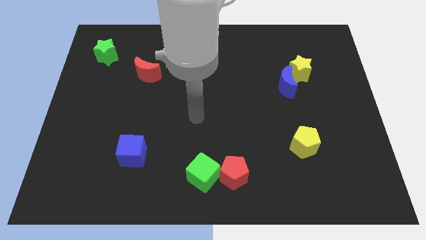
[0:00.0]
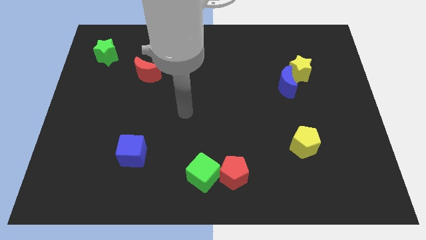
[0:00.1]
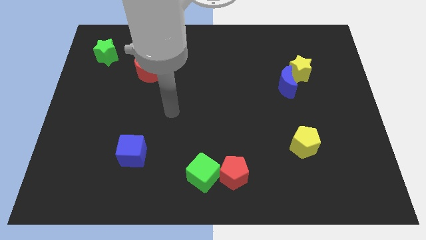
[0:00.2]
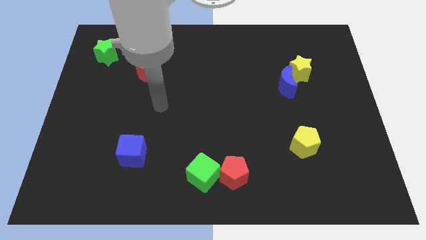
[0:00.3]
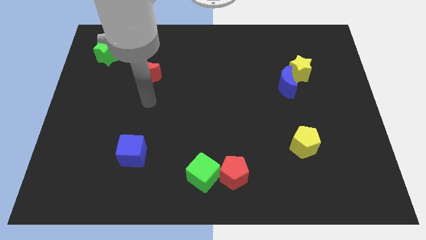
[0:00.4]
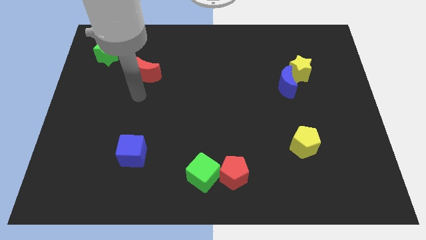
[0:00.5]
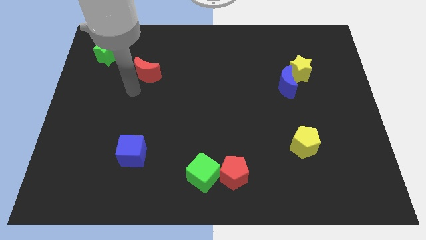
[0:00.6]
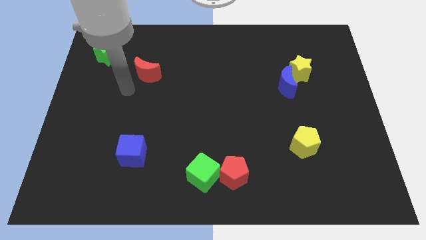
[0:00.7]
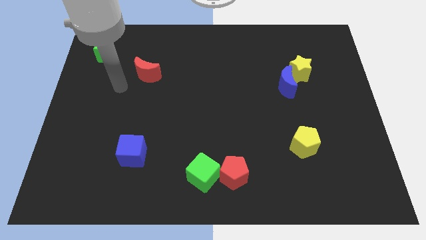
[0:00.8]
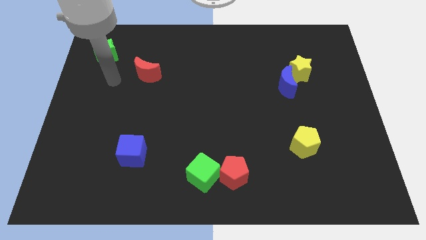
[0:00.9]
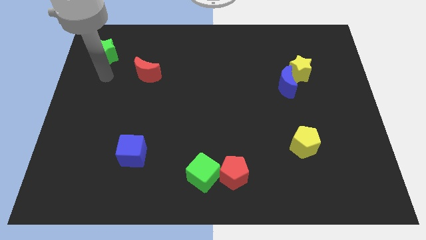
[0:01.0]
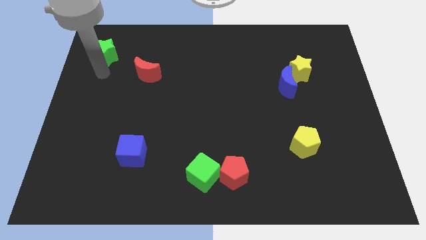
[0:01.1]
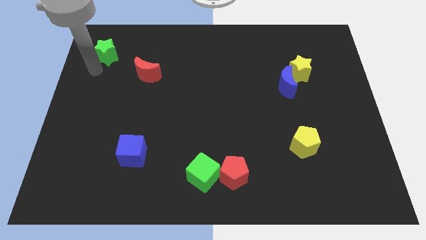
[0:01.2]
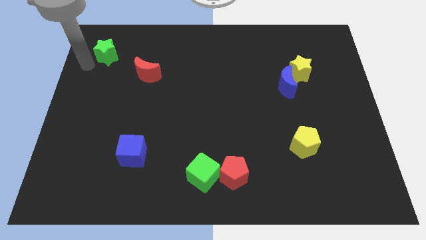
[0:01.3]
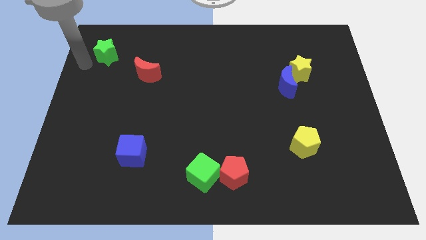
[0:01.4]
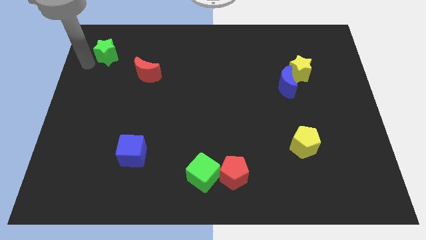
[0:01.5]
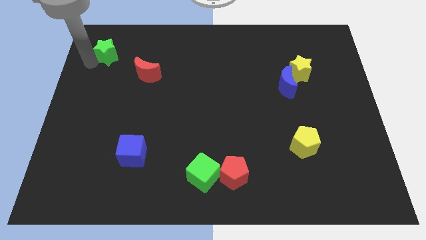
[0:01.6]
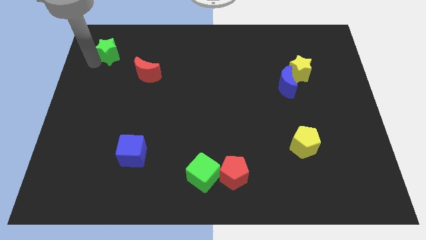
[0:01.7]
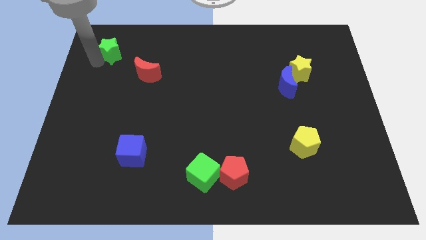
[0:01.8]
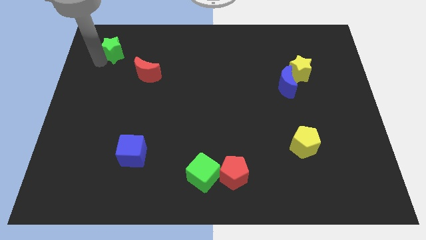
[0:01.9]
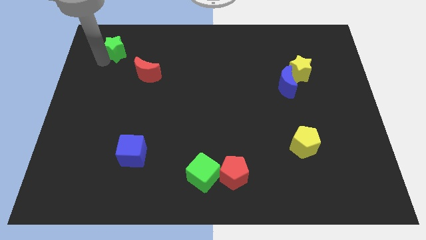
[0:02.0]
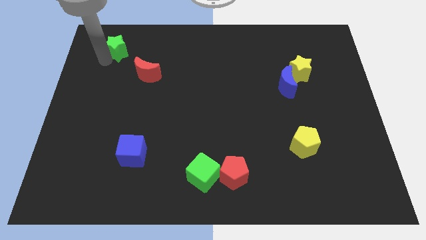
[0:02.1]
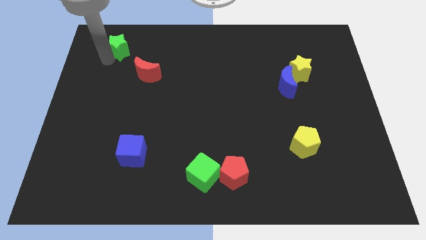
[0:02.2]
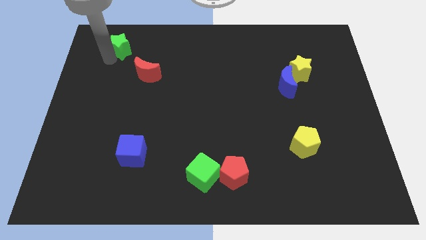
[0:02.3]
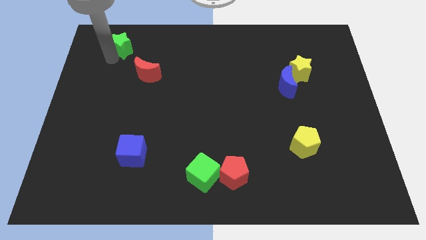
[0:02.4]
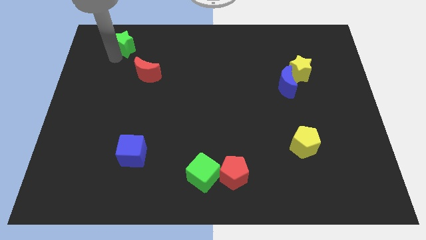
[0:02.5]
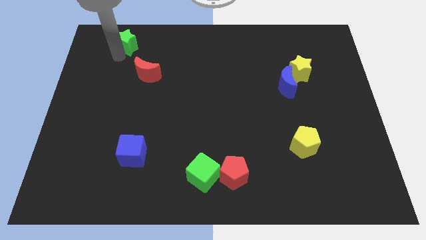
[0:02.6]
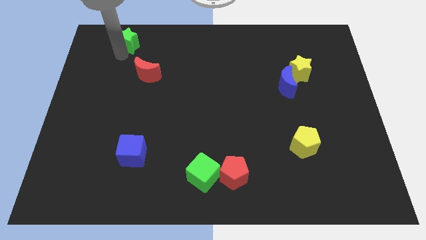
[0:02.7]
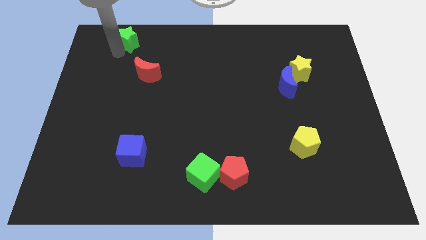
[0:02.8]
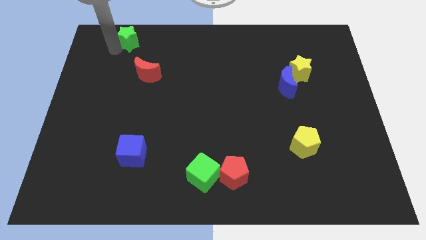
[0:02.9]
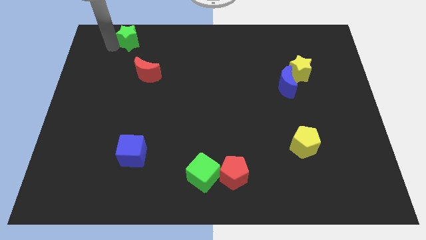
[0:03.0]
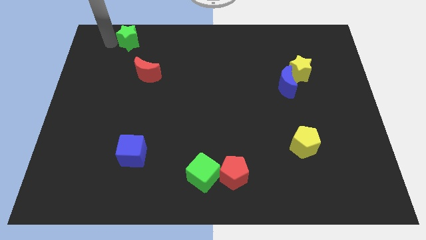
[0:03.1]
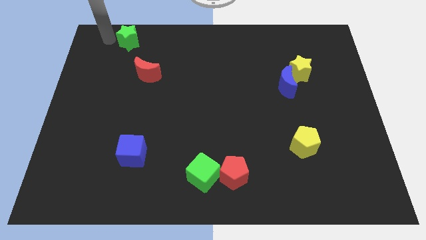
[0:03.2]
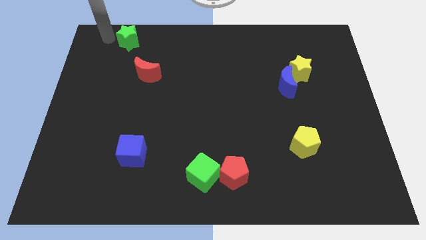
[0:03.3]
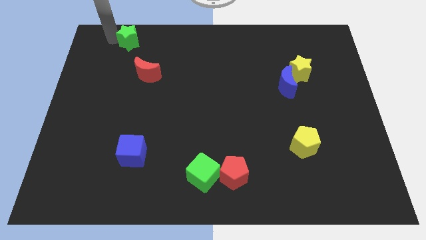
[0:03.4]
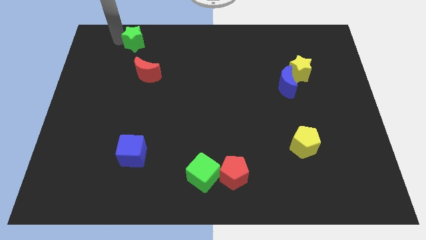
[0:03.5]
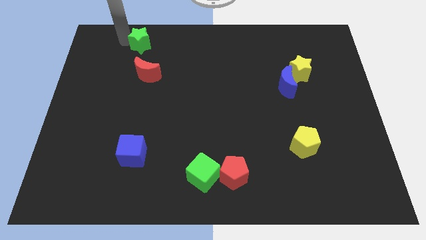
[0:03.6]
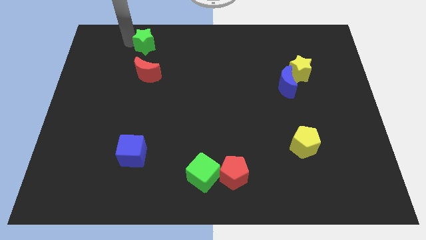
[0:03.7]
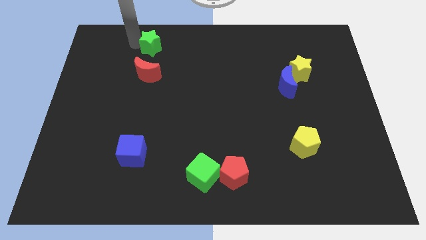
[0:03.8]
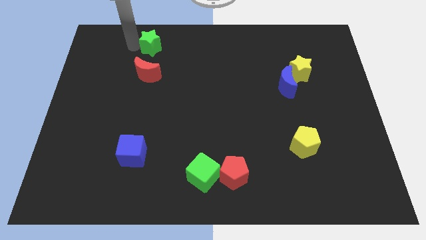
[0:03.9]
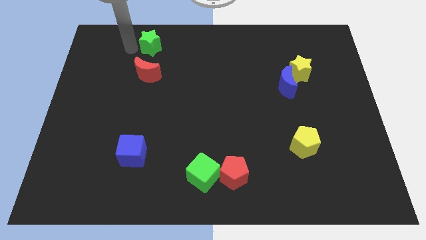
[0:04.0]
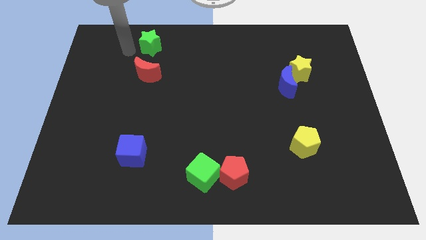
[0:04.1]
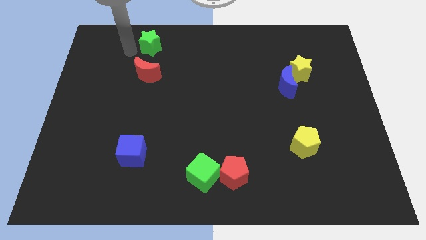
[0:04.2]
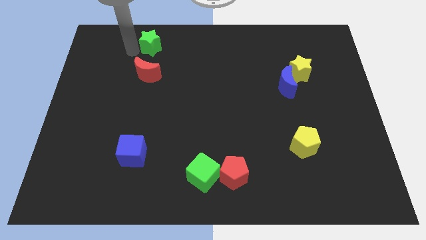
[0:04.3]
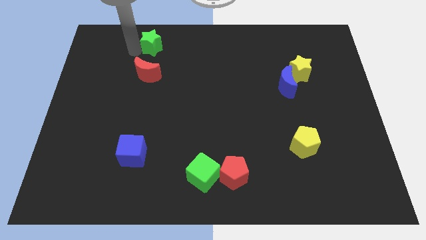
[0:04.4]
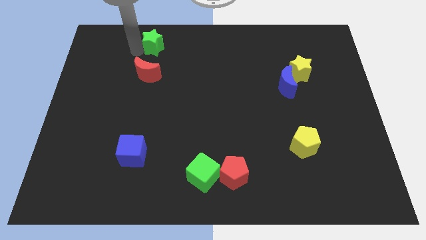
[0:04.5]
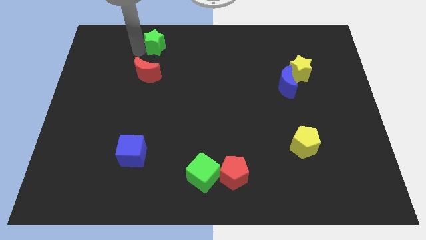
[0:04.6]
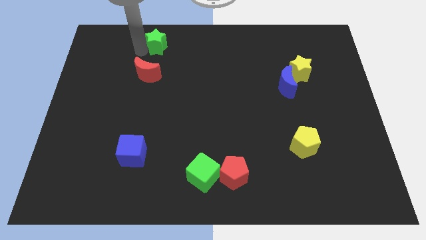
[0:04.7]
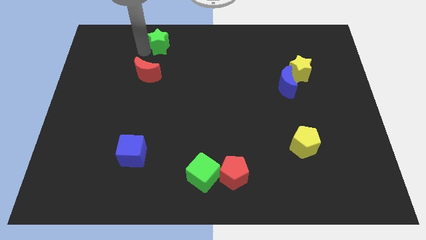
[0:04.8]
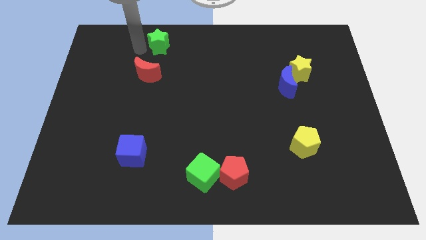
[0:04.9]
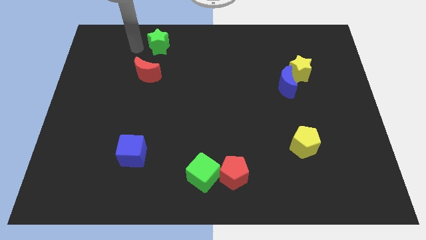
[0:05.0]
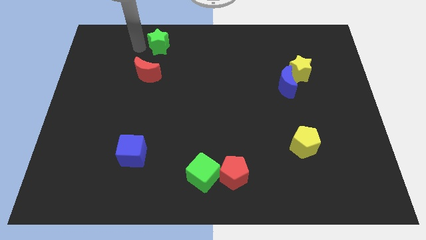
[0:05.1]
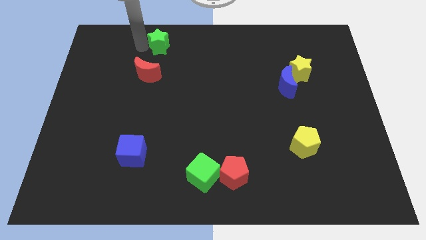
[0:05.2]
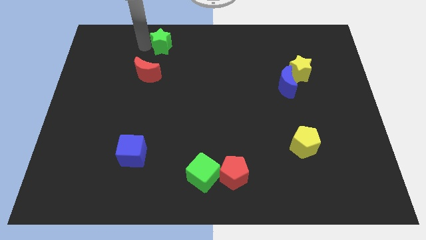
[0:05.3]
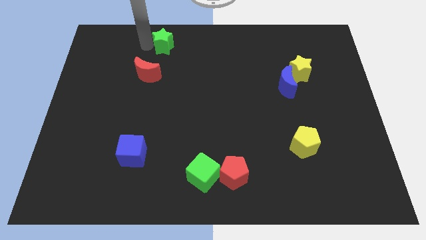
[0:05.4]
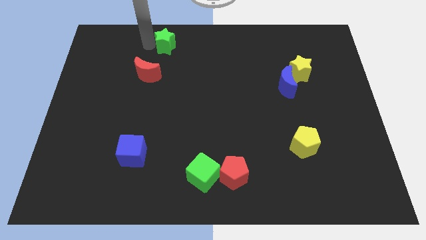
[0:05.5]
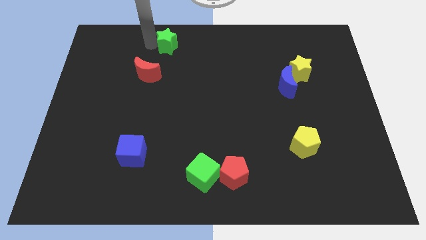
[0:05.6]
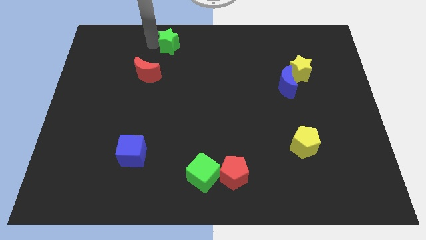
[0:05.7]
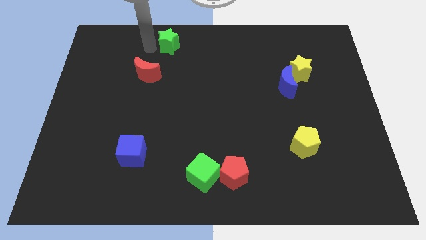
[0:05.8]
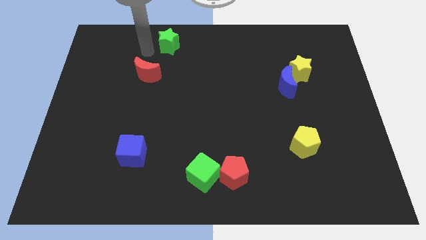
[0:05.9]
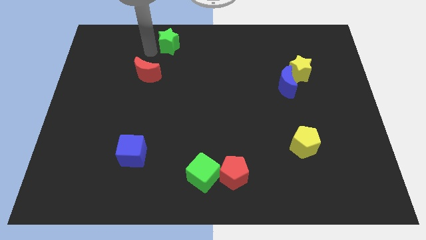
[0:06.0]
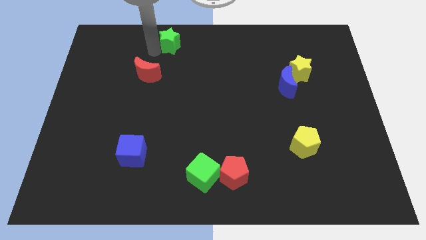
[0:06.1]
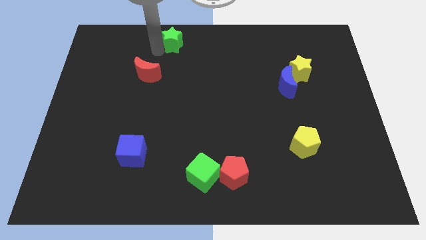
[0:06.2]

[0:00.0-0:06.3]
move the green star to the top

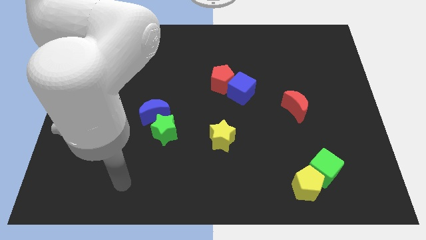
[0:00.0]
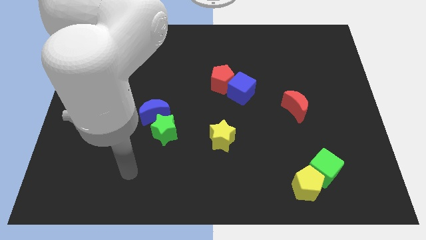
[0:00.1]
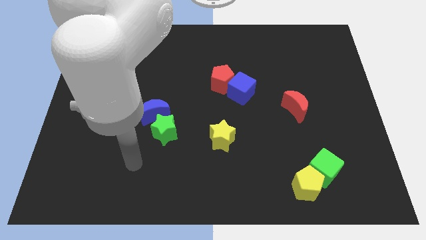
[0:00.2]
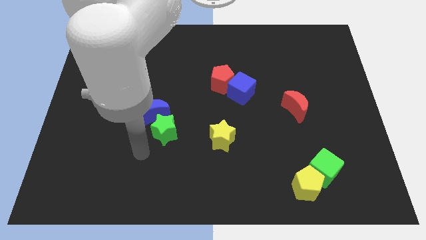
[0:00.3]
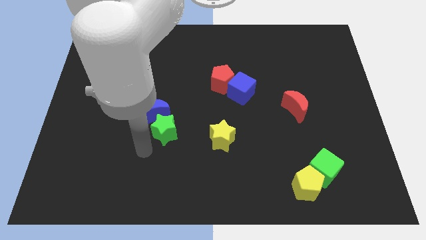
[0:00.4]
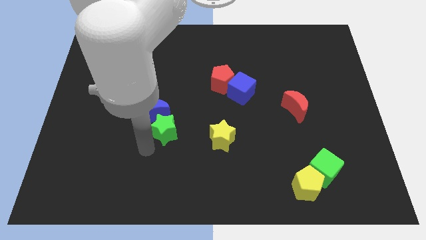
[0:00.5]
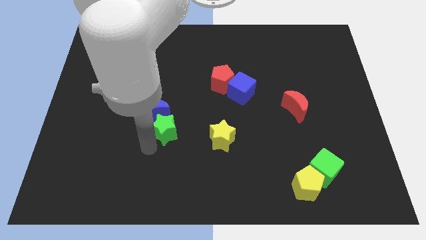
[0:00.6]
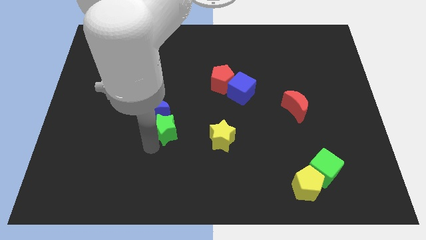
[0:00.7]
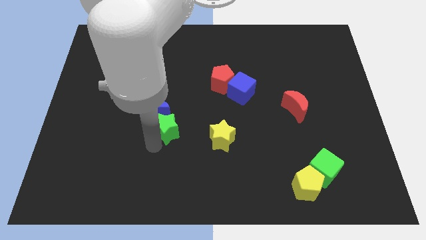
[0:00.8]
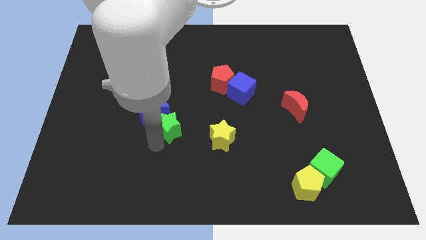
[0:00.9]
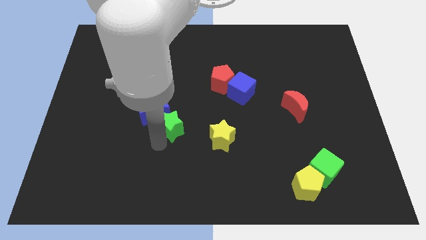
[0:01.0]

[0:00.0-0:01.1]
move the green star to the center of the board
